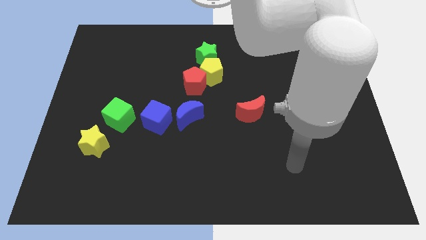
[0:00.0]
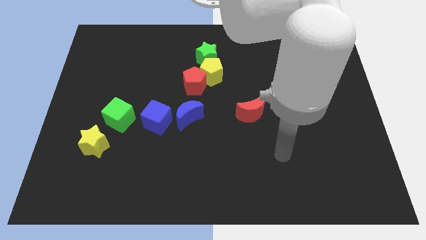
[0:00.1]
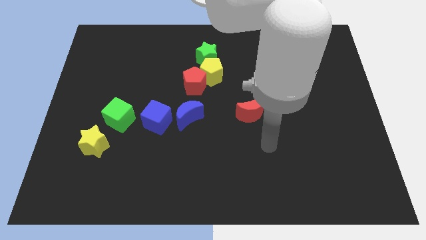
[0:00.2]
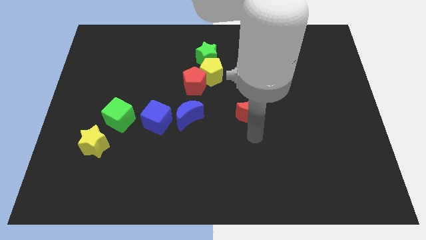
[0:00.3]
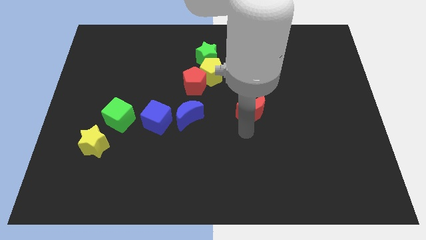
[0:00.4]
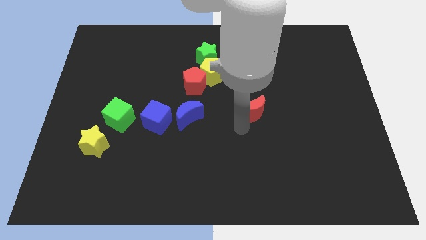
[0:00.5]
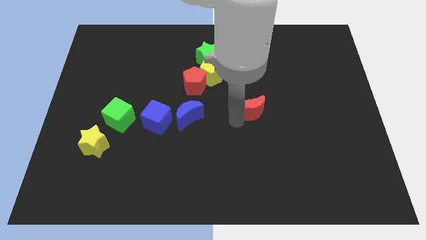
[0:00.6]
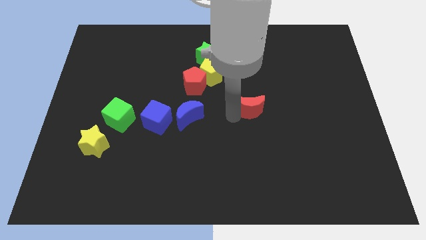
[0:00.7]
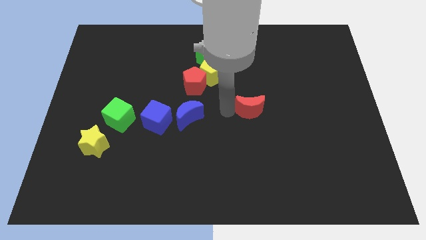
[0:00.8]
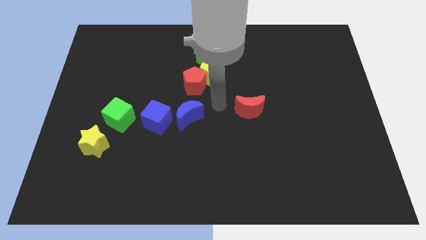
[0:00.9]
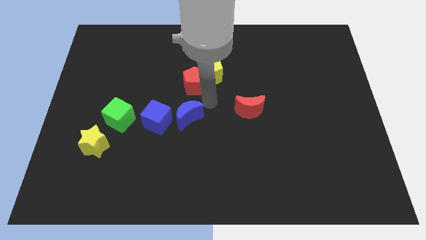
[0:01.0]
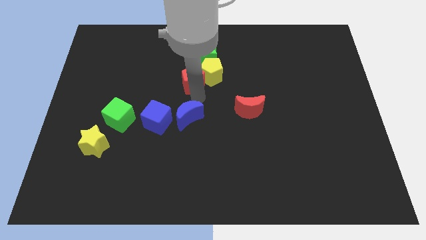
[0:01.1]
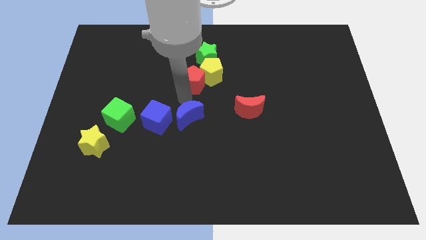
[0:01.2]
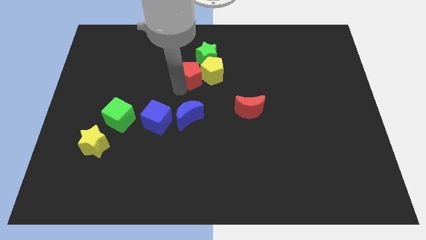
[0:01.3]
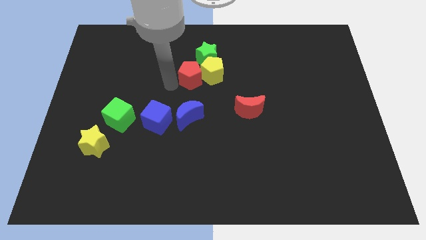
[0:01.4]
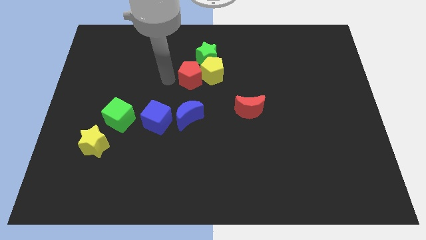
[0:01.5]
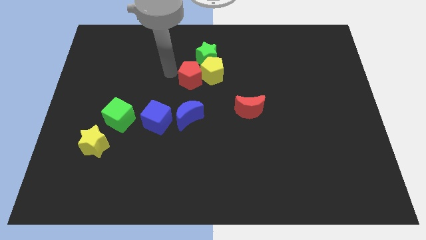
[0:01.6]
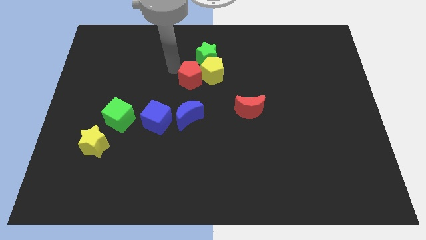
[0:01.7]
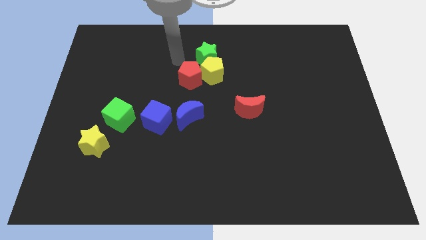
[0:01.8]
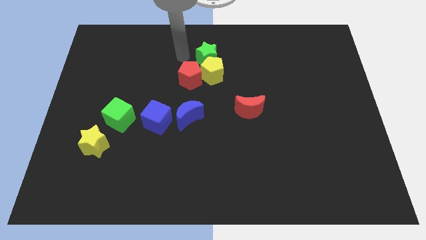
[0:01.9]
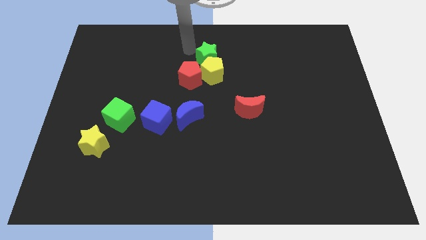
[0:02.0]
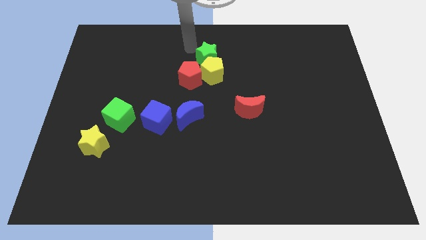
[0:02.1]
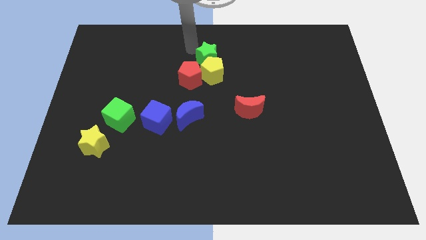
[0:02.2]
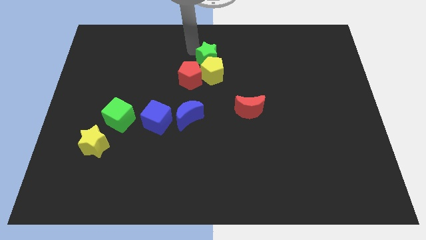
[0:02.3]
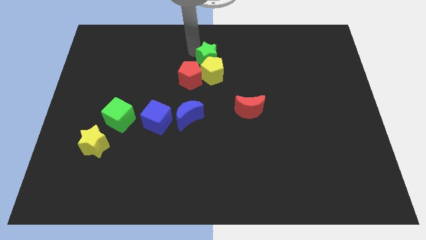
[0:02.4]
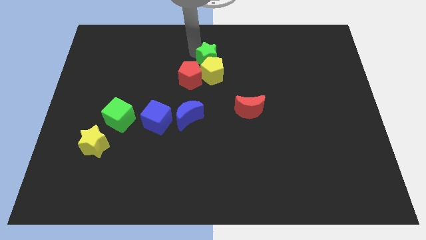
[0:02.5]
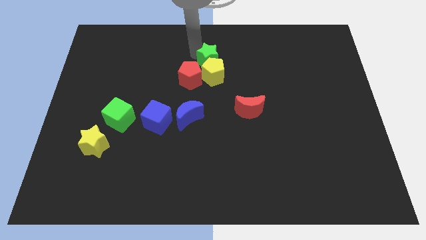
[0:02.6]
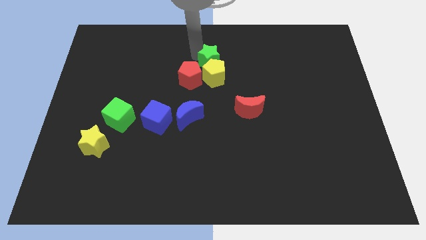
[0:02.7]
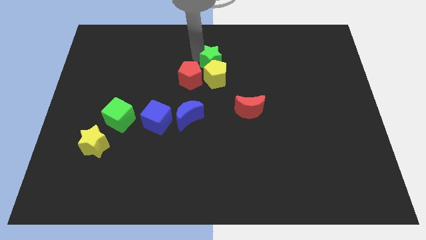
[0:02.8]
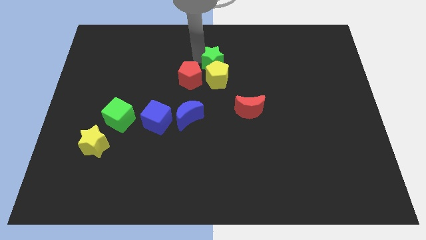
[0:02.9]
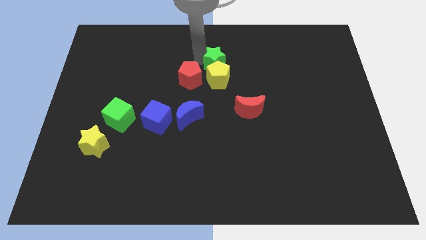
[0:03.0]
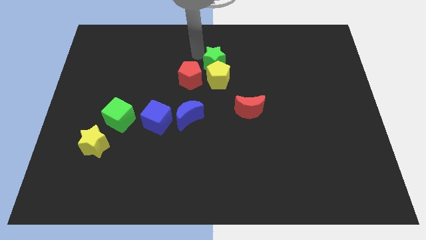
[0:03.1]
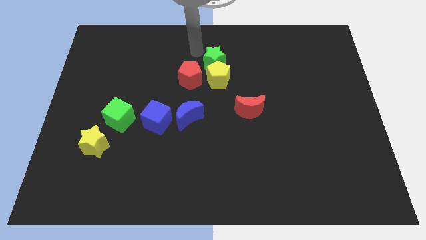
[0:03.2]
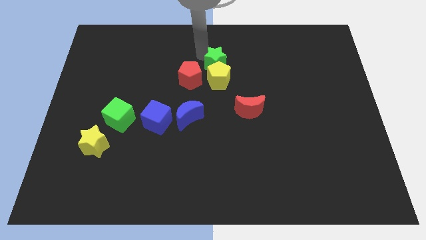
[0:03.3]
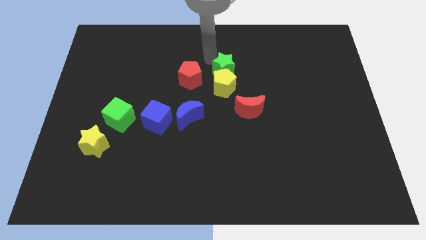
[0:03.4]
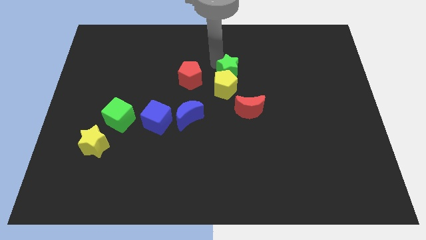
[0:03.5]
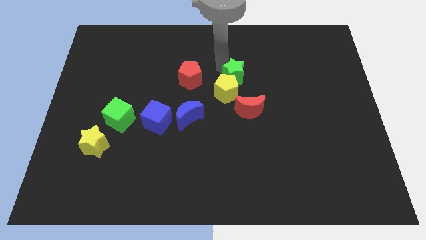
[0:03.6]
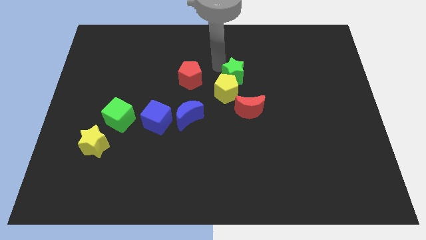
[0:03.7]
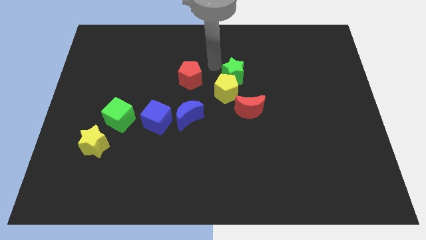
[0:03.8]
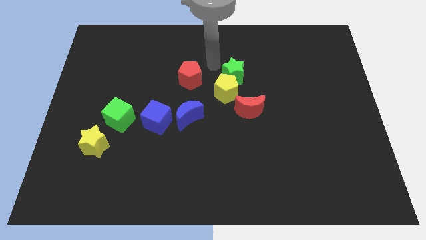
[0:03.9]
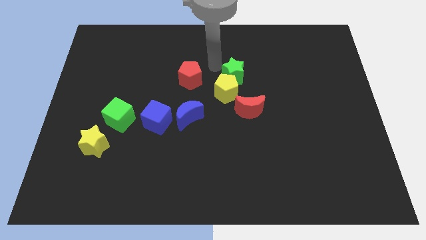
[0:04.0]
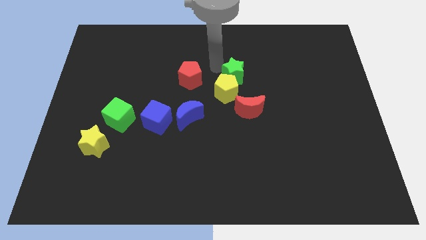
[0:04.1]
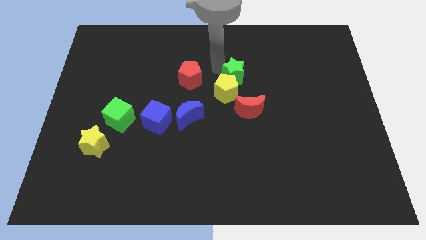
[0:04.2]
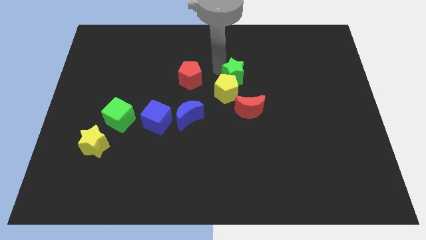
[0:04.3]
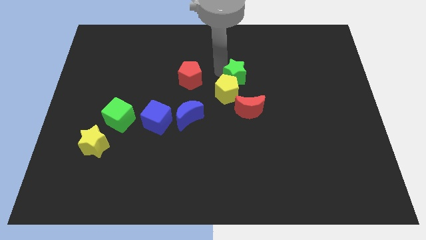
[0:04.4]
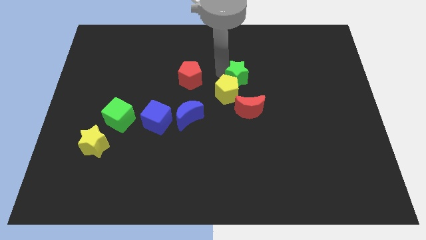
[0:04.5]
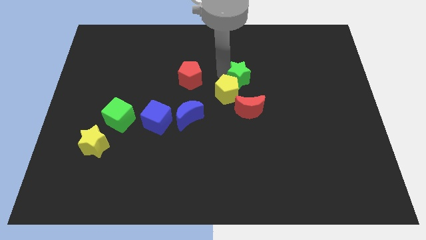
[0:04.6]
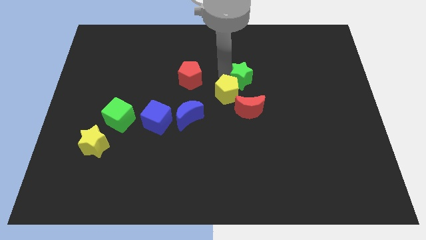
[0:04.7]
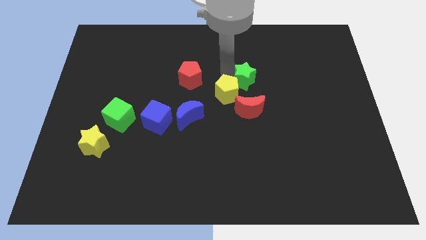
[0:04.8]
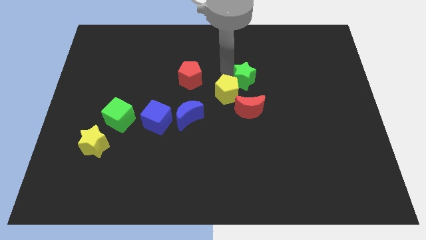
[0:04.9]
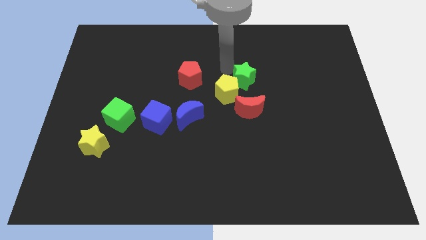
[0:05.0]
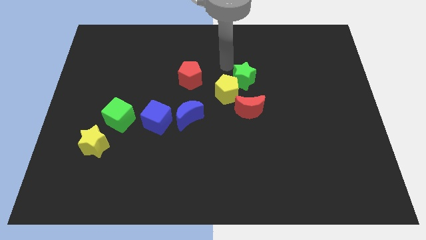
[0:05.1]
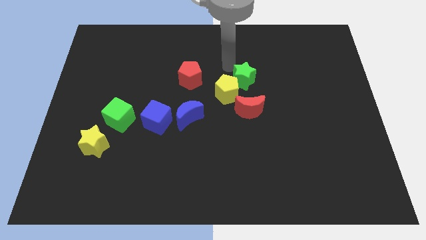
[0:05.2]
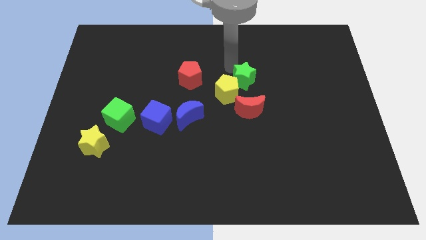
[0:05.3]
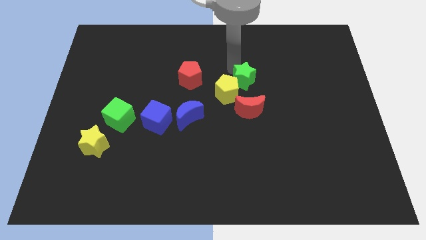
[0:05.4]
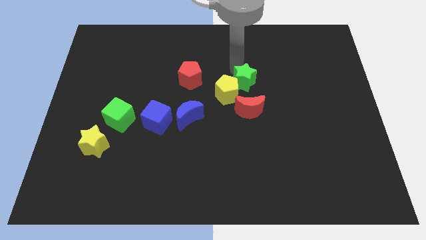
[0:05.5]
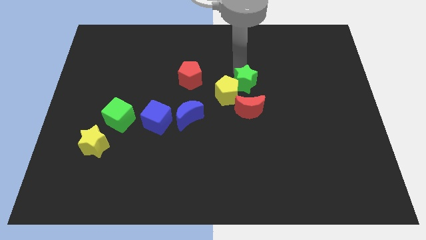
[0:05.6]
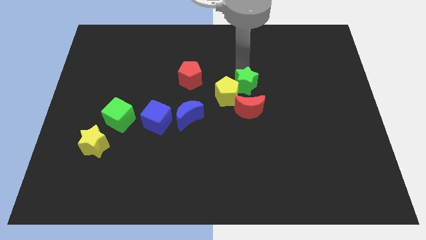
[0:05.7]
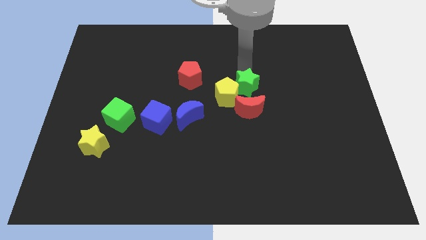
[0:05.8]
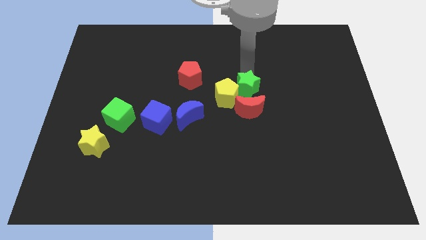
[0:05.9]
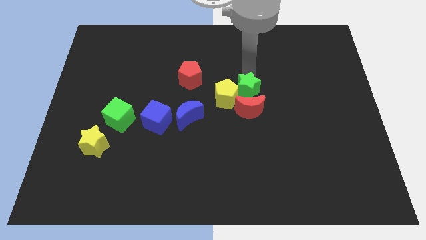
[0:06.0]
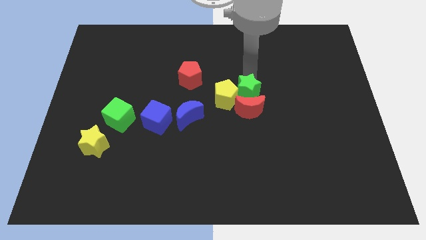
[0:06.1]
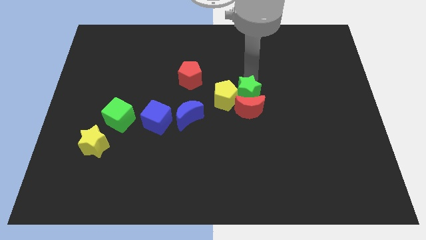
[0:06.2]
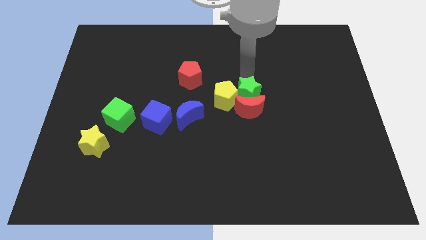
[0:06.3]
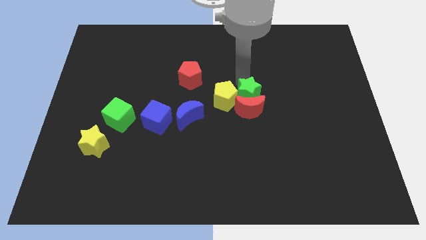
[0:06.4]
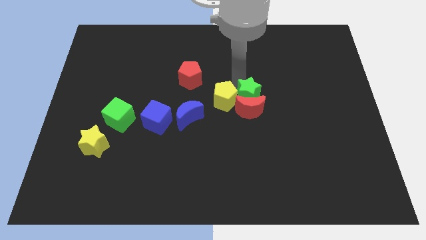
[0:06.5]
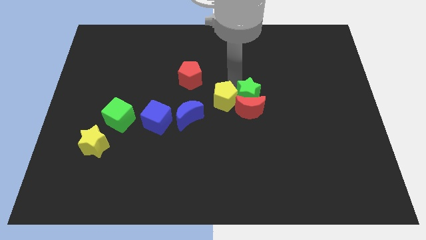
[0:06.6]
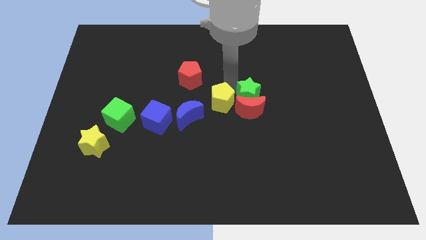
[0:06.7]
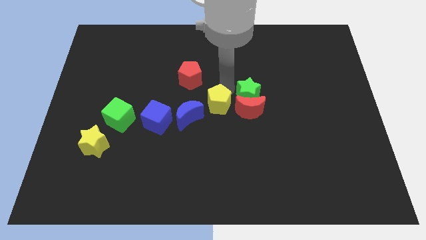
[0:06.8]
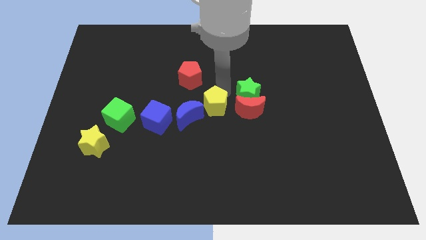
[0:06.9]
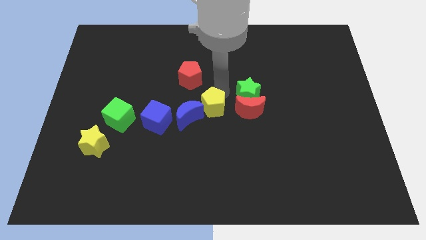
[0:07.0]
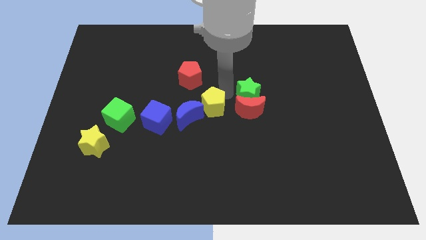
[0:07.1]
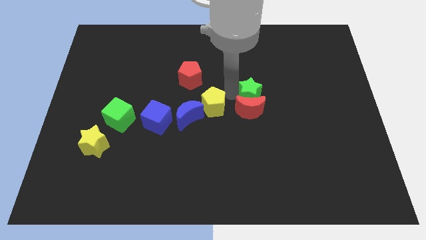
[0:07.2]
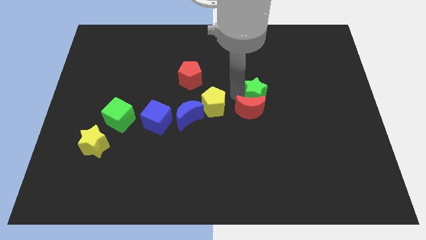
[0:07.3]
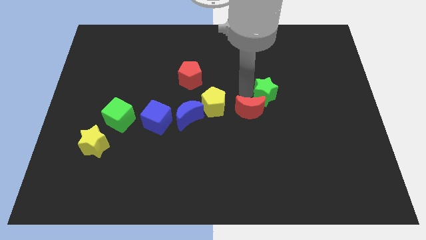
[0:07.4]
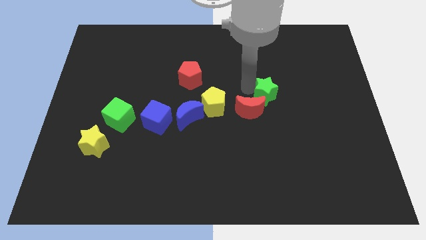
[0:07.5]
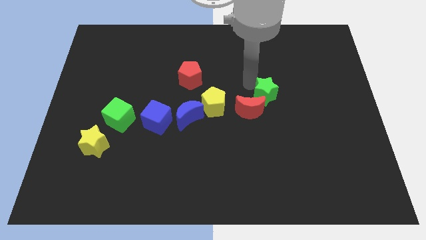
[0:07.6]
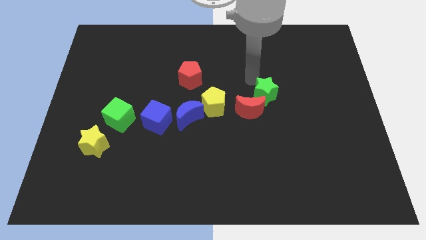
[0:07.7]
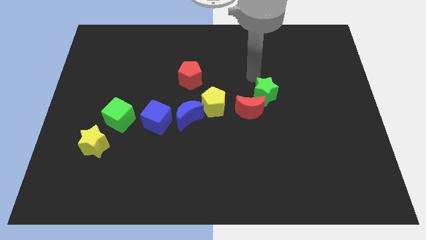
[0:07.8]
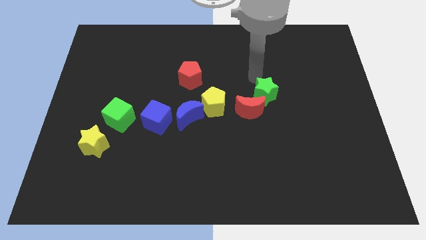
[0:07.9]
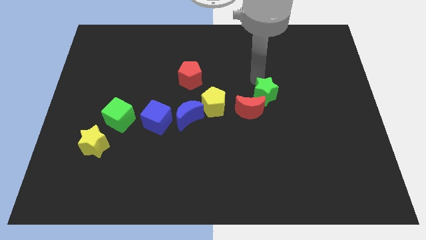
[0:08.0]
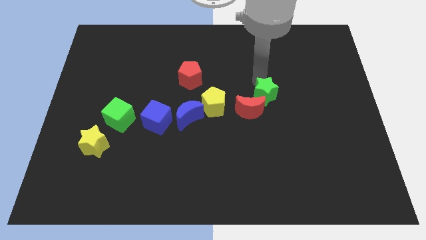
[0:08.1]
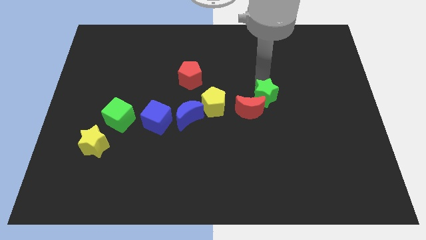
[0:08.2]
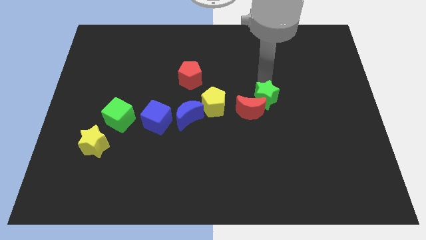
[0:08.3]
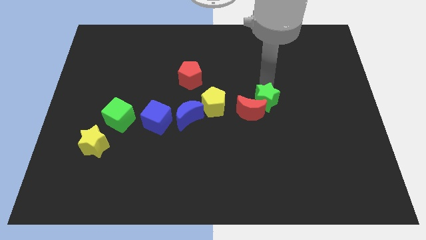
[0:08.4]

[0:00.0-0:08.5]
push the green star downwards and to the right
